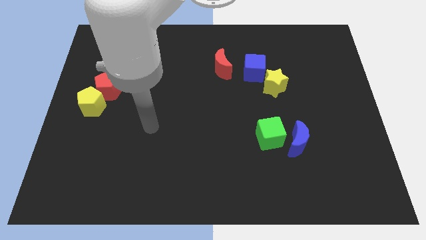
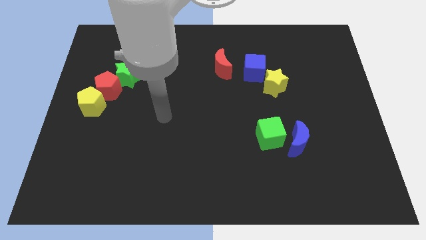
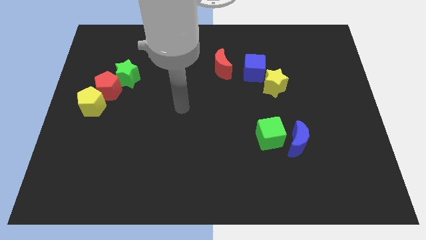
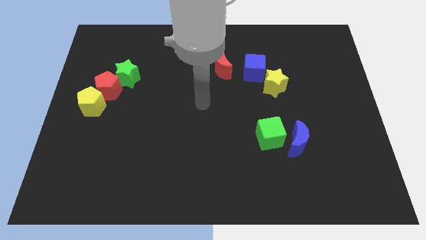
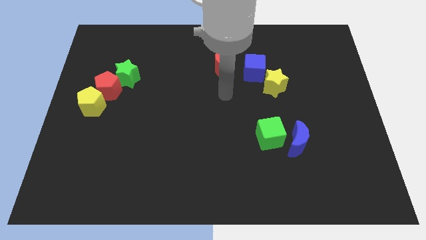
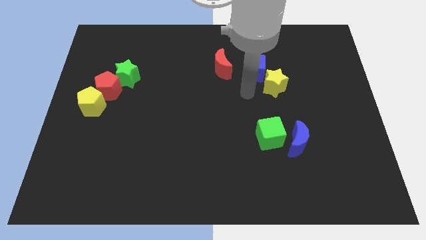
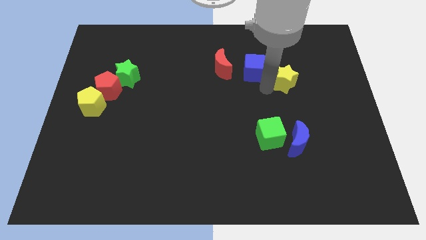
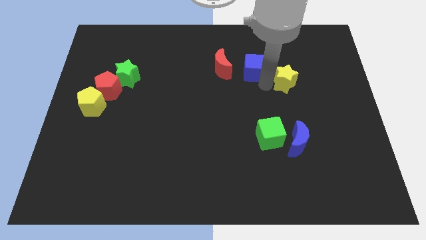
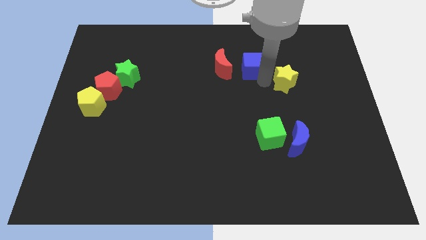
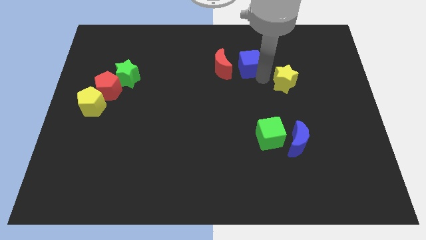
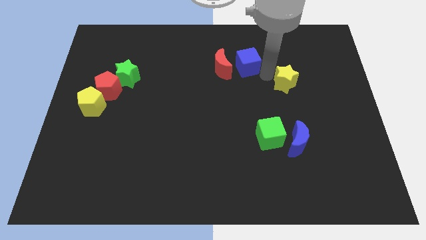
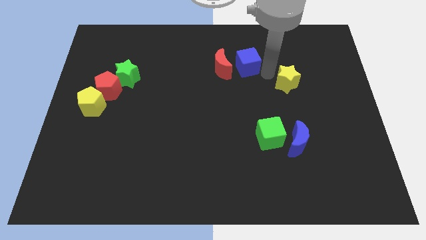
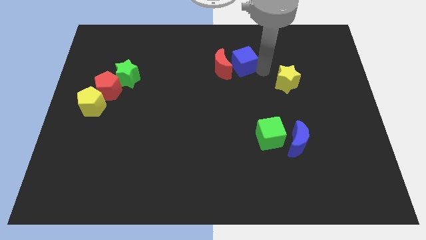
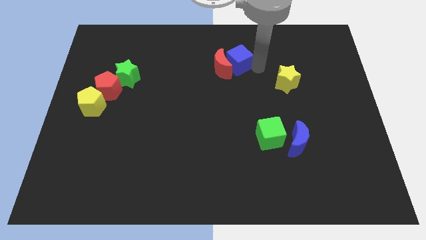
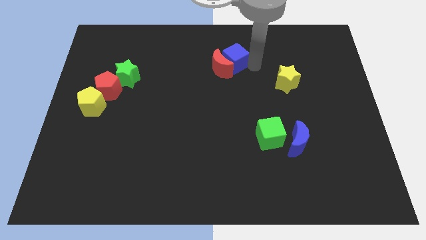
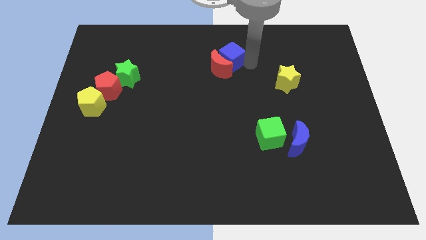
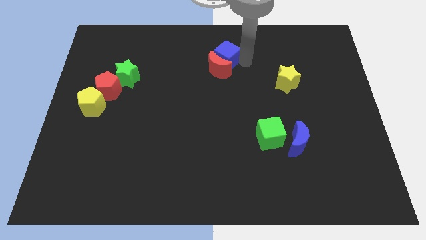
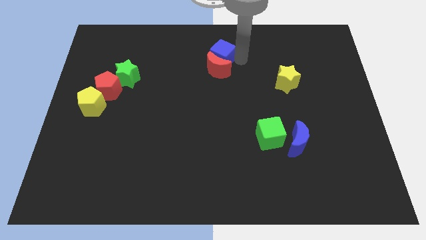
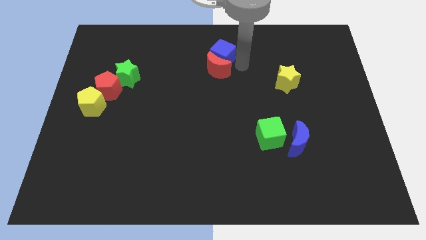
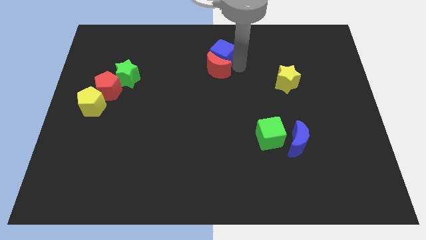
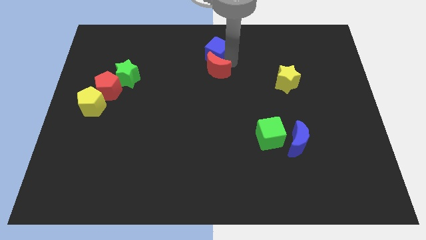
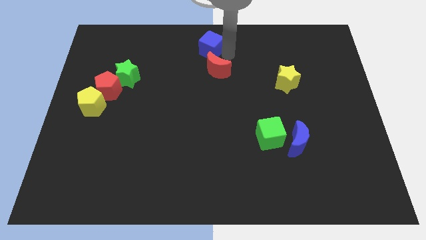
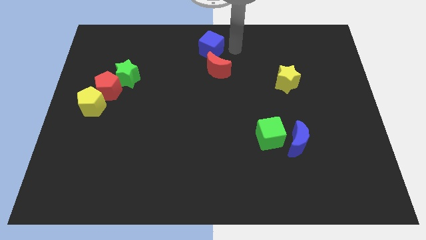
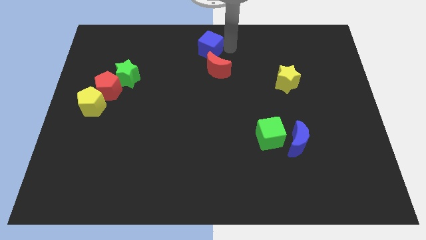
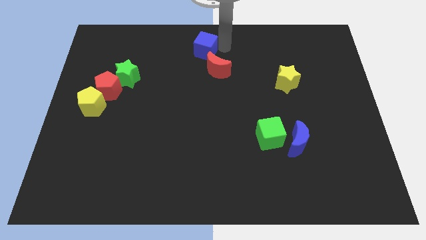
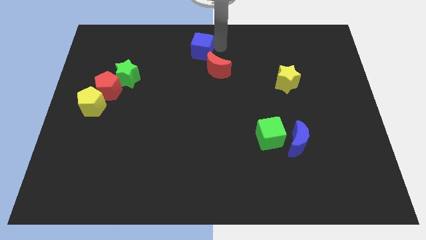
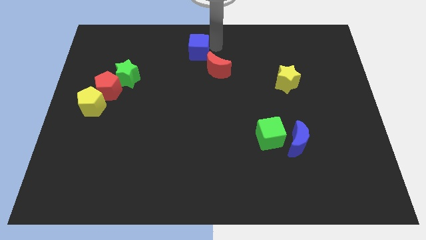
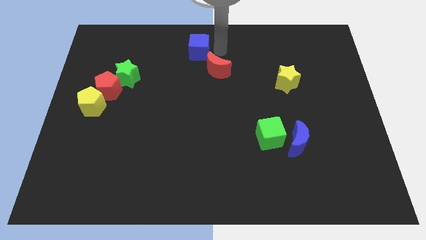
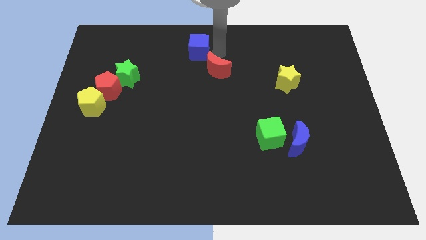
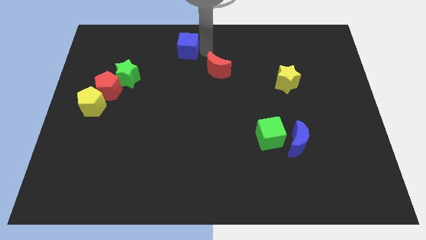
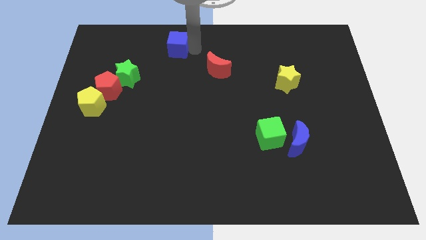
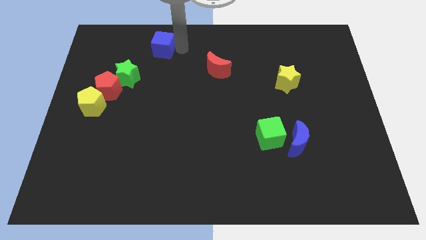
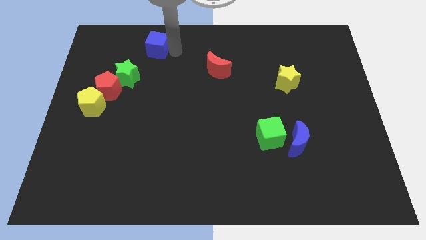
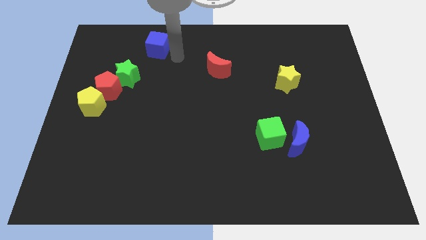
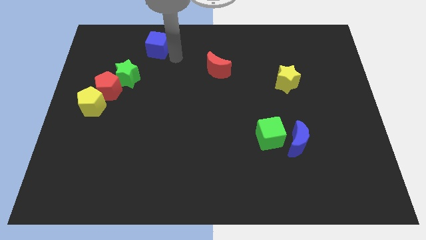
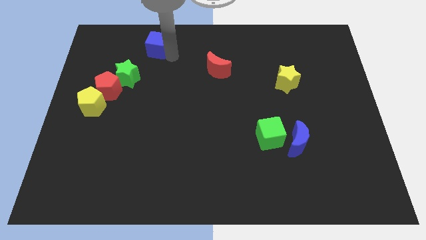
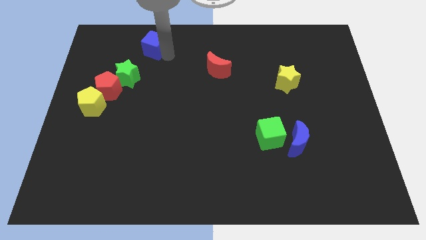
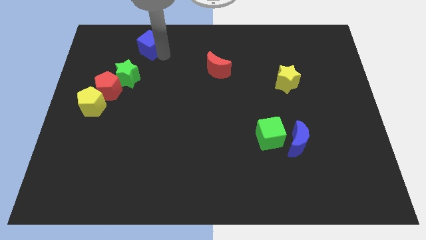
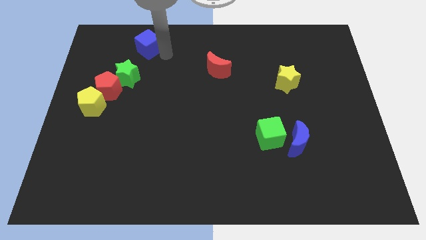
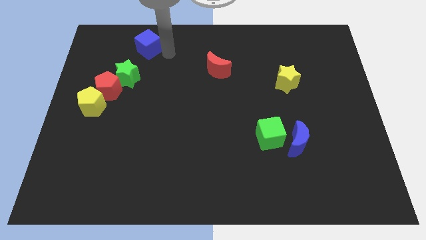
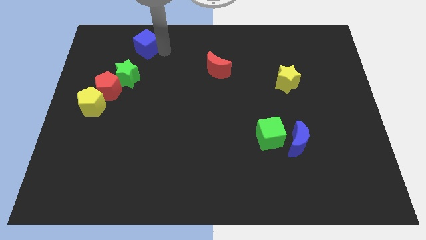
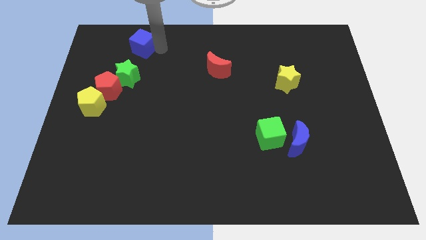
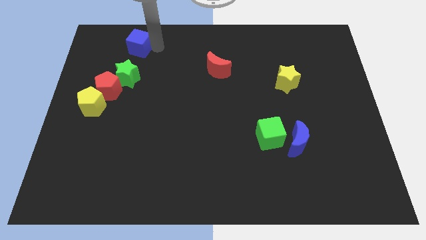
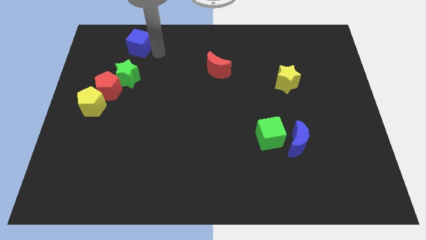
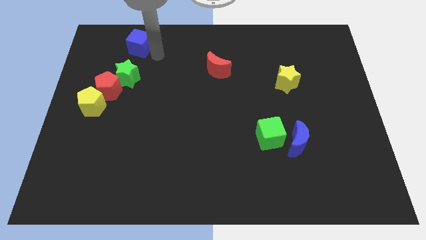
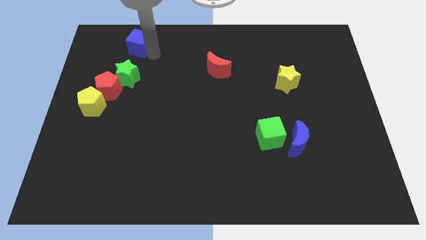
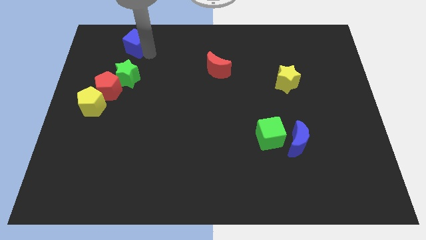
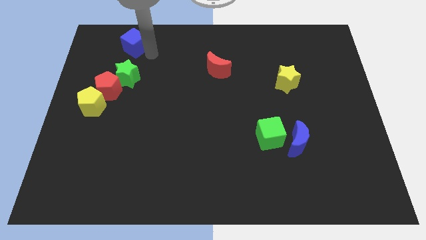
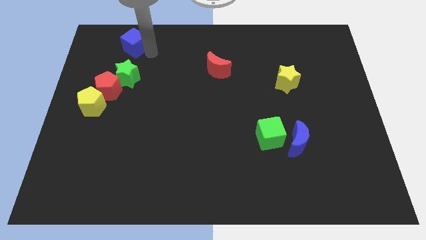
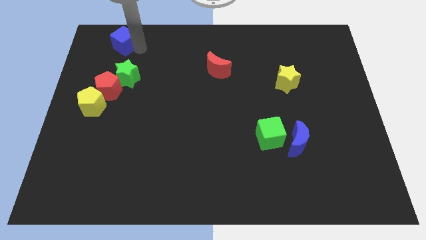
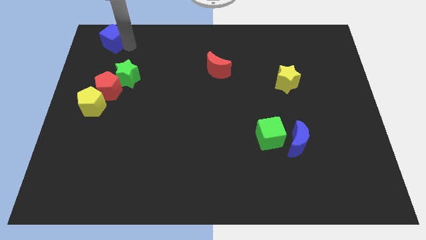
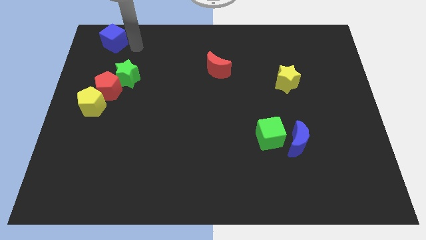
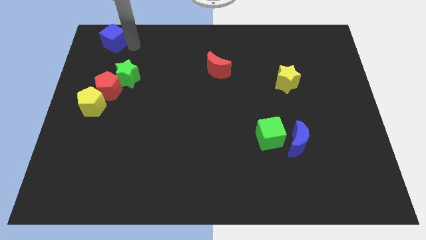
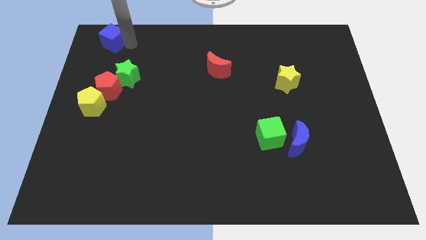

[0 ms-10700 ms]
put the blue cube to the top left
